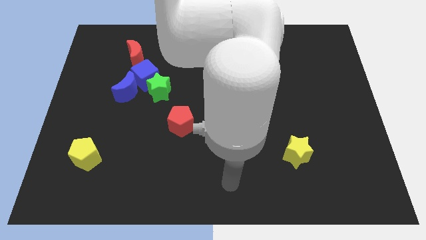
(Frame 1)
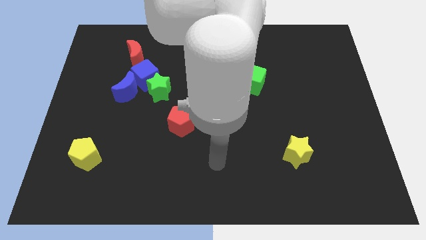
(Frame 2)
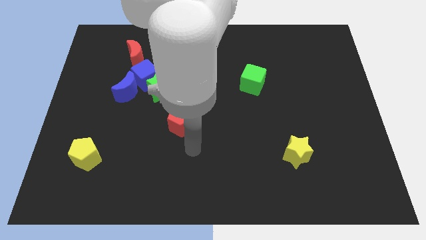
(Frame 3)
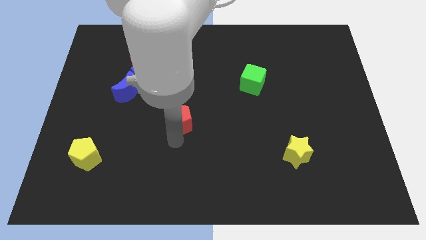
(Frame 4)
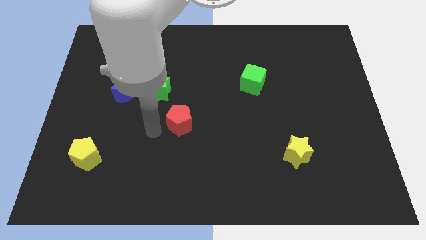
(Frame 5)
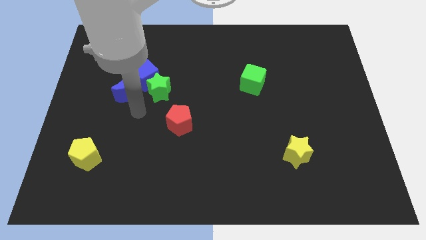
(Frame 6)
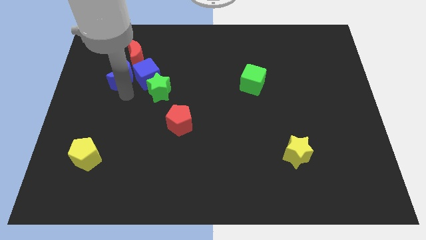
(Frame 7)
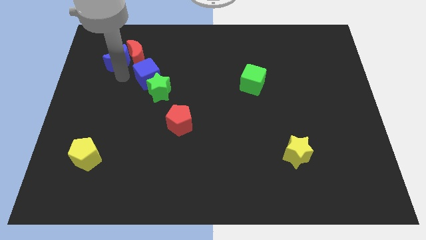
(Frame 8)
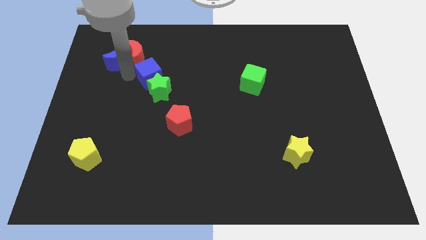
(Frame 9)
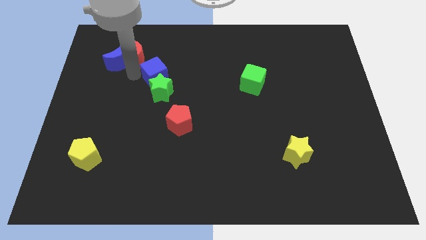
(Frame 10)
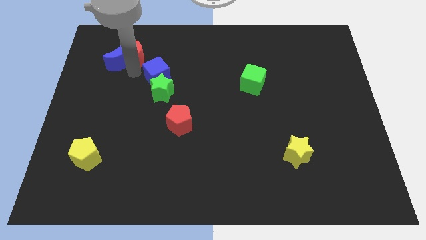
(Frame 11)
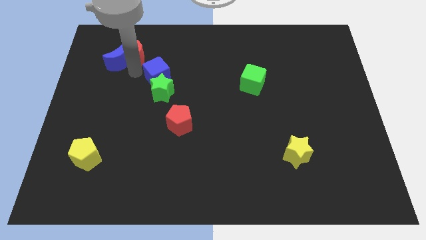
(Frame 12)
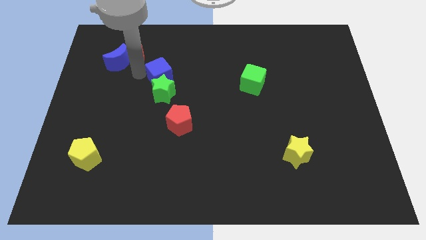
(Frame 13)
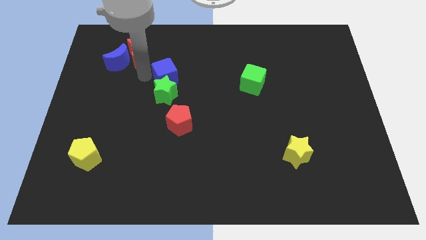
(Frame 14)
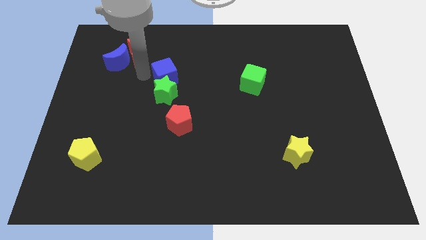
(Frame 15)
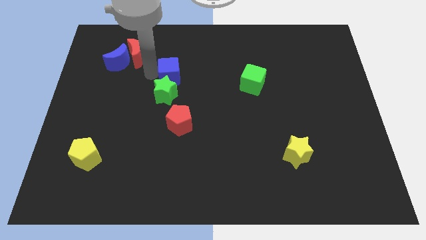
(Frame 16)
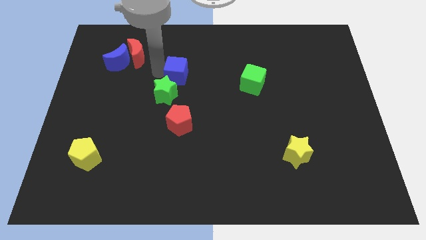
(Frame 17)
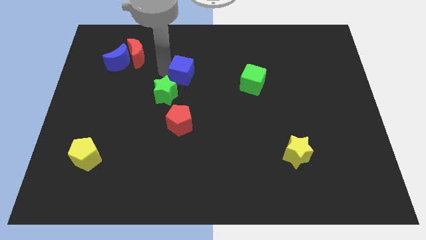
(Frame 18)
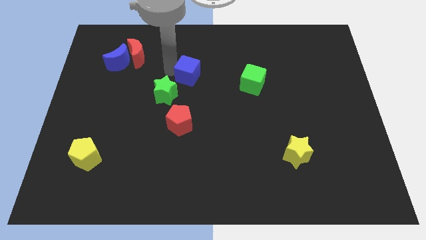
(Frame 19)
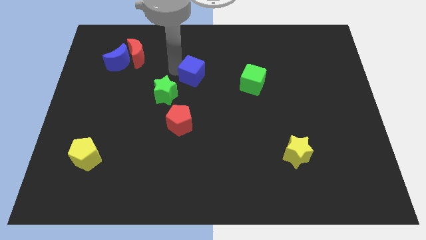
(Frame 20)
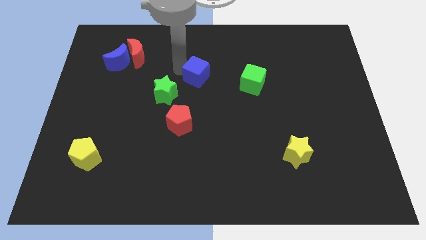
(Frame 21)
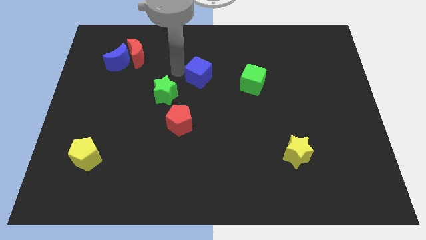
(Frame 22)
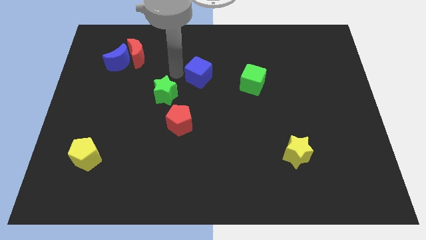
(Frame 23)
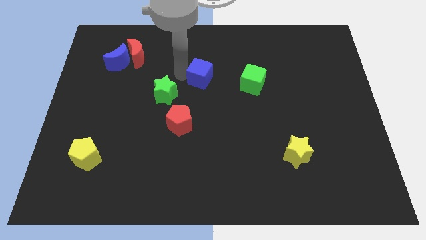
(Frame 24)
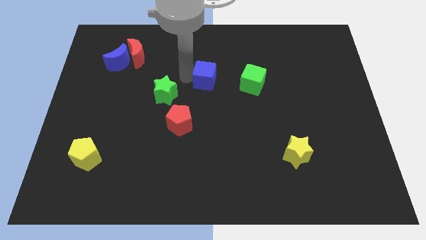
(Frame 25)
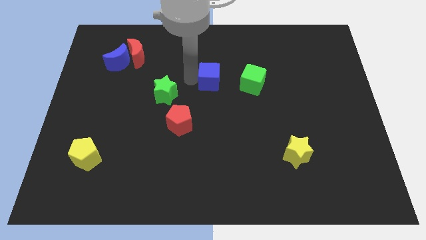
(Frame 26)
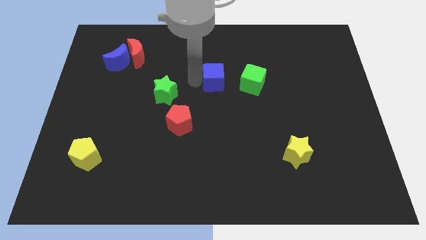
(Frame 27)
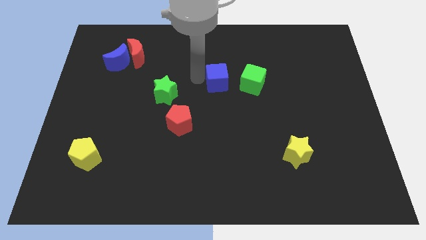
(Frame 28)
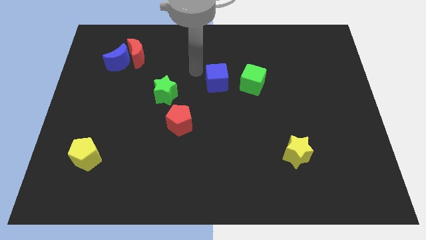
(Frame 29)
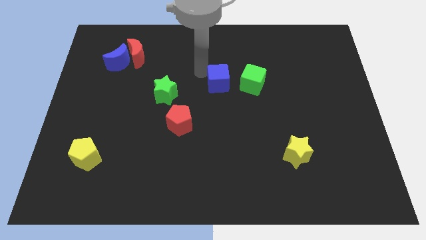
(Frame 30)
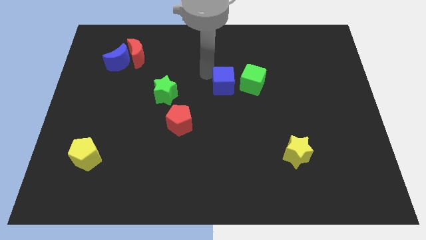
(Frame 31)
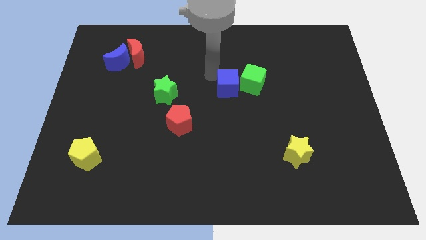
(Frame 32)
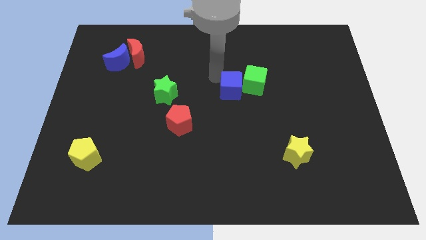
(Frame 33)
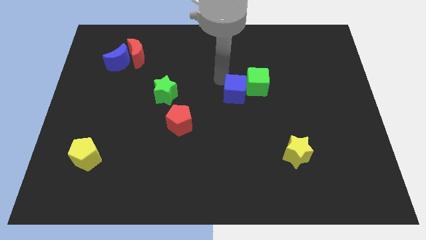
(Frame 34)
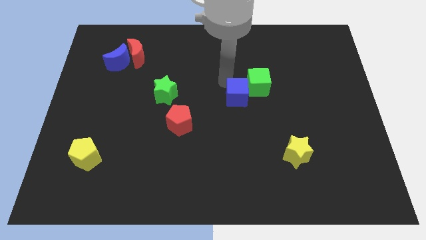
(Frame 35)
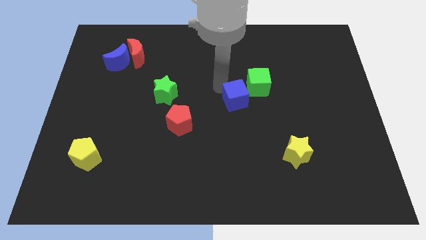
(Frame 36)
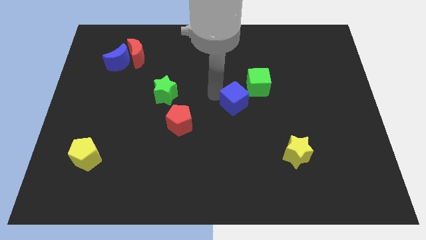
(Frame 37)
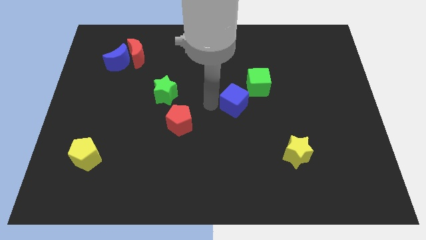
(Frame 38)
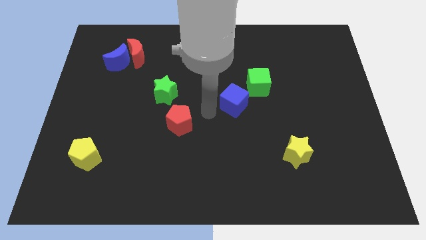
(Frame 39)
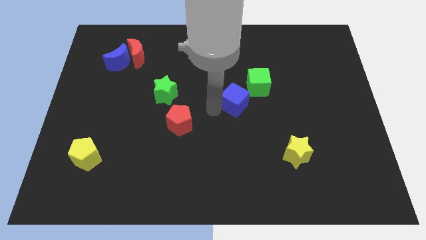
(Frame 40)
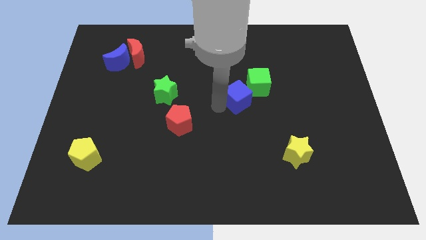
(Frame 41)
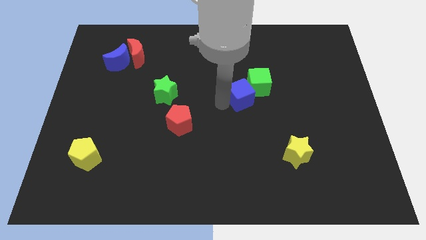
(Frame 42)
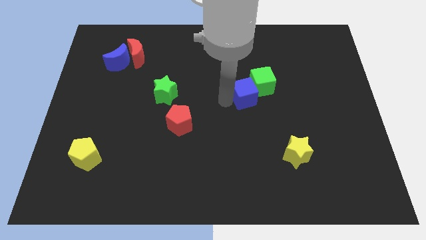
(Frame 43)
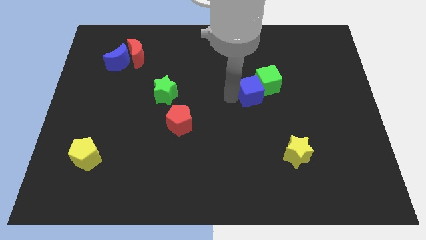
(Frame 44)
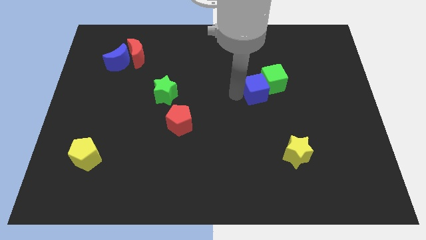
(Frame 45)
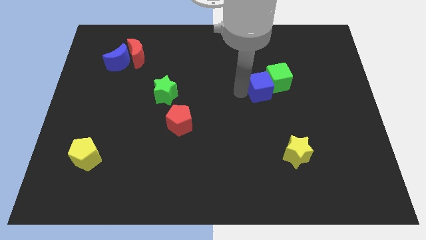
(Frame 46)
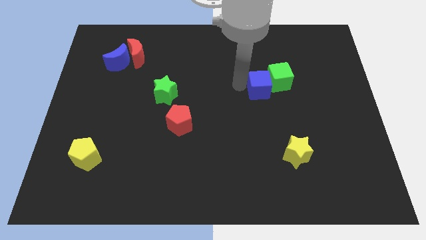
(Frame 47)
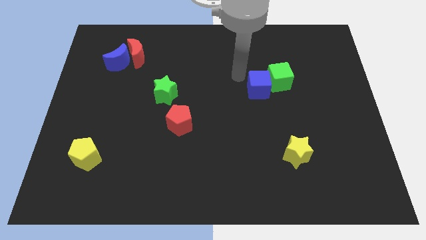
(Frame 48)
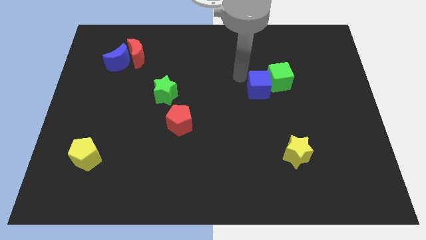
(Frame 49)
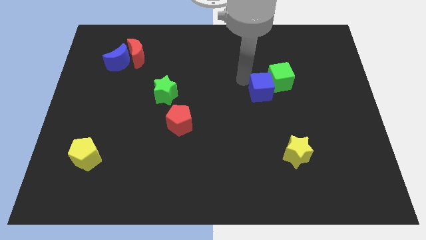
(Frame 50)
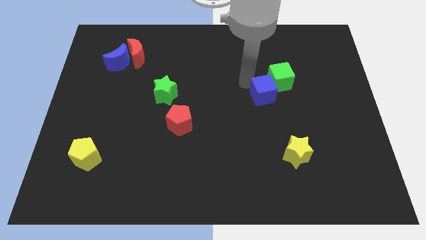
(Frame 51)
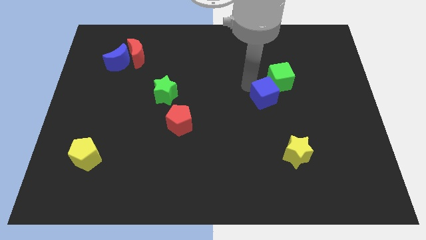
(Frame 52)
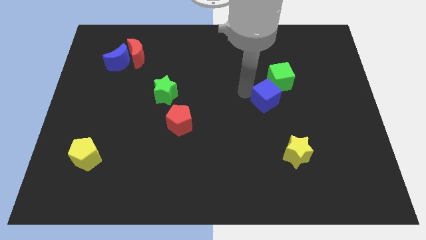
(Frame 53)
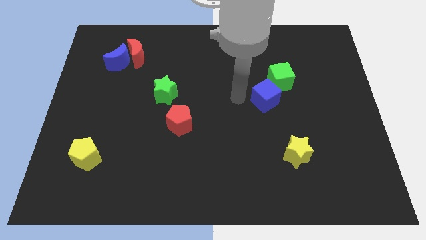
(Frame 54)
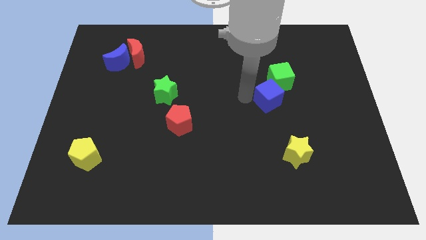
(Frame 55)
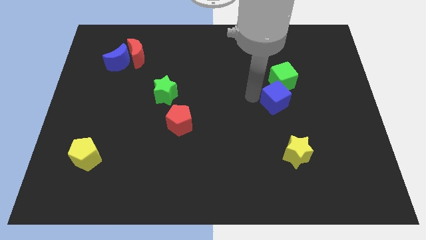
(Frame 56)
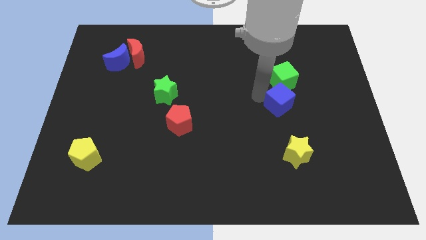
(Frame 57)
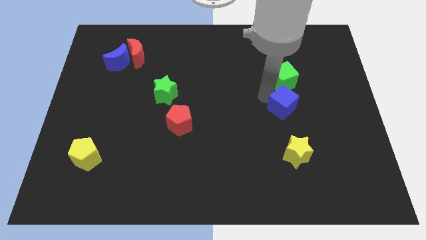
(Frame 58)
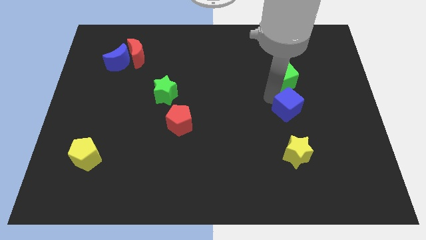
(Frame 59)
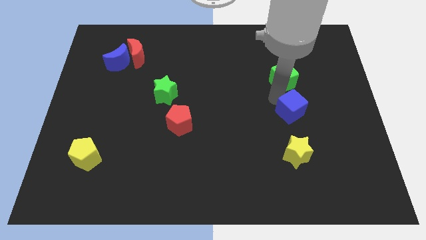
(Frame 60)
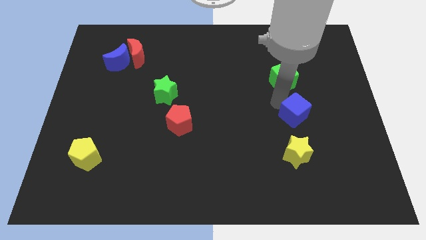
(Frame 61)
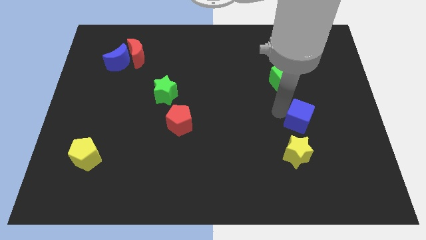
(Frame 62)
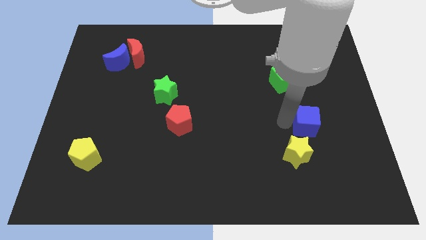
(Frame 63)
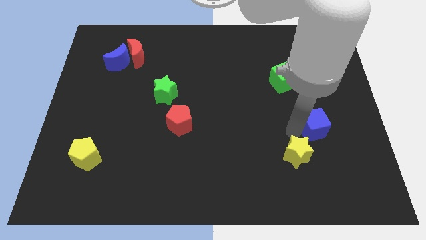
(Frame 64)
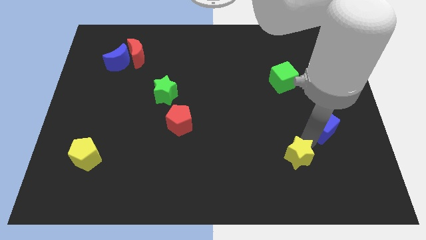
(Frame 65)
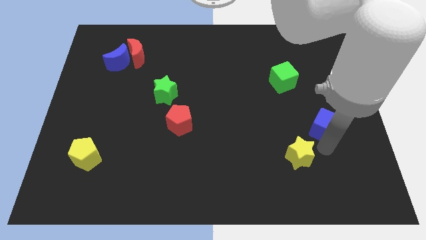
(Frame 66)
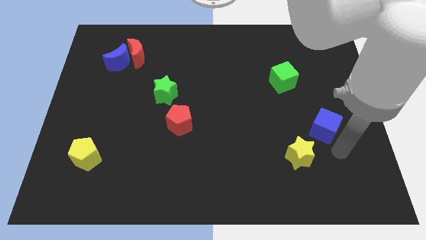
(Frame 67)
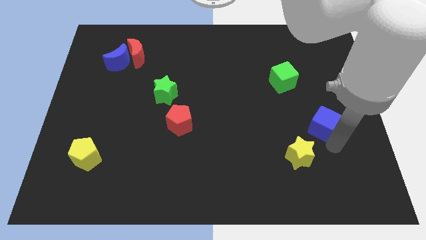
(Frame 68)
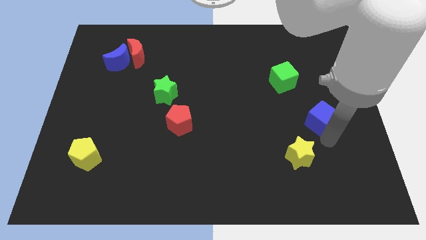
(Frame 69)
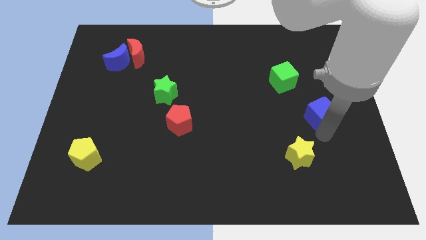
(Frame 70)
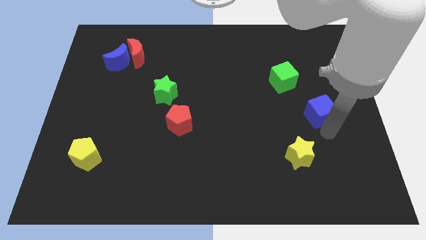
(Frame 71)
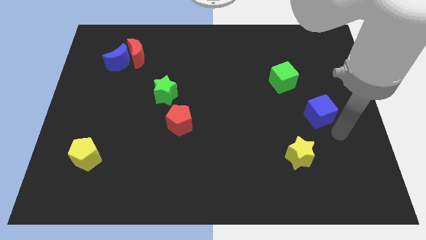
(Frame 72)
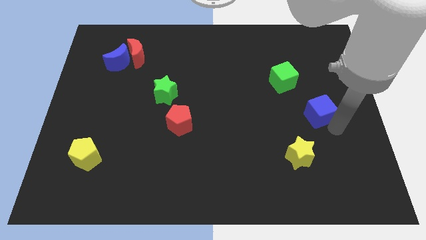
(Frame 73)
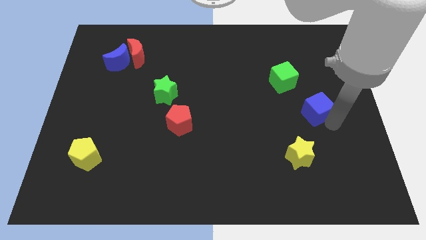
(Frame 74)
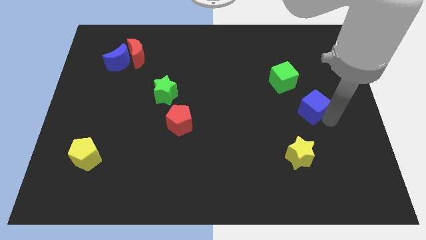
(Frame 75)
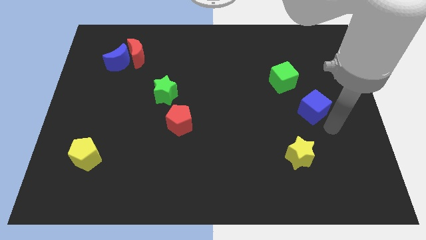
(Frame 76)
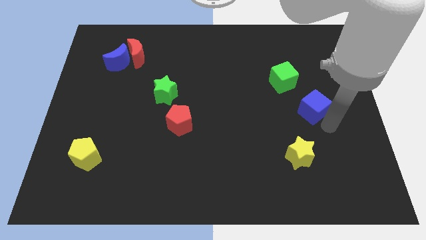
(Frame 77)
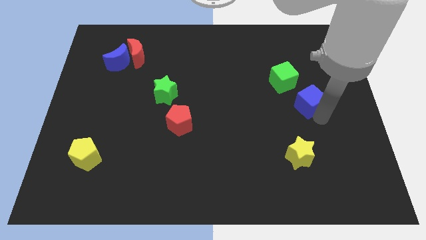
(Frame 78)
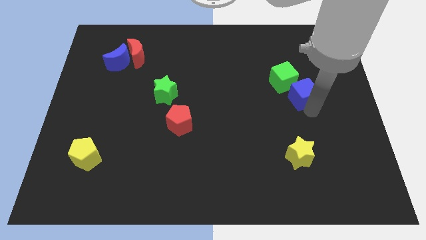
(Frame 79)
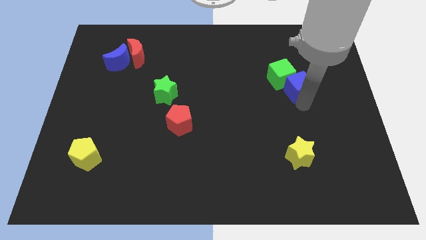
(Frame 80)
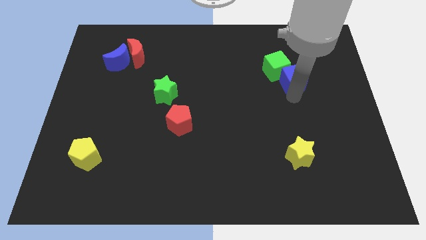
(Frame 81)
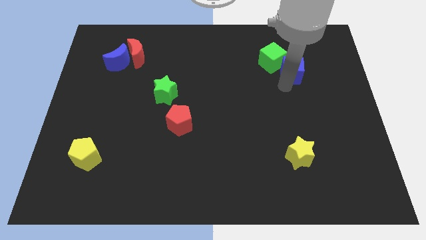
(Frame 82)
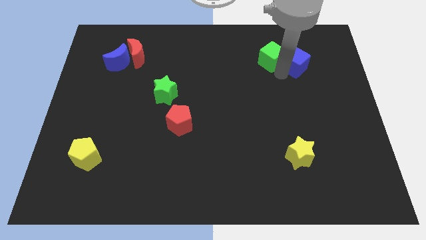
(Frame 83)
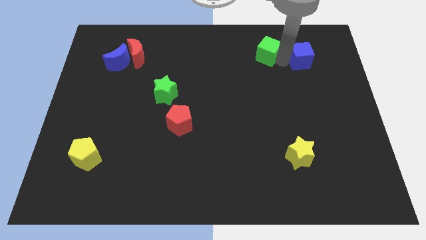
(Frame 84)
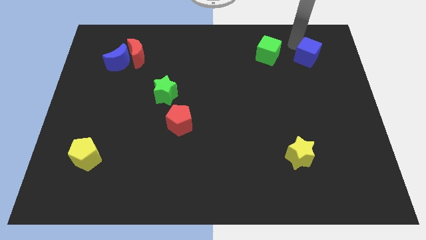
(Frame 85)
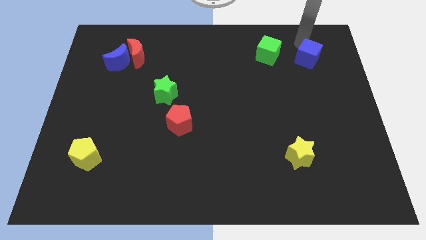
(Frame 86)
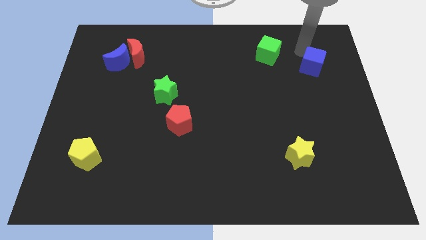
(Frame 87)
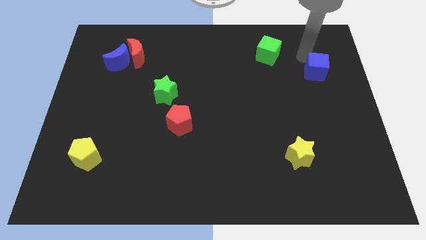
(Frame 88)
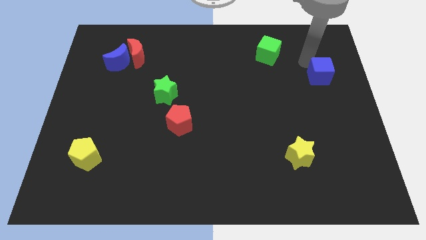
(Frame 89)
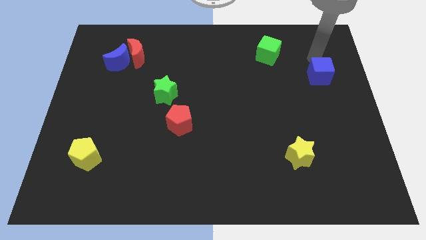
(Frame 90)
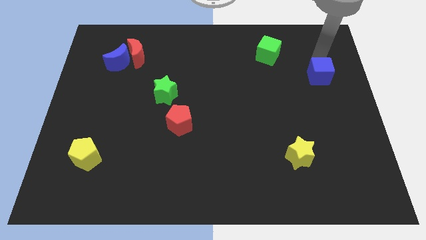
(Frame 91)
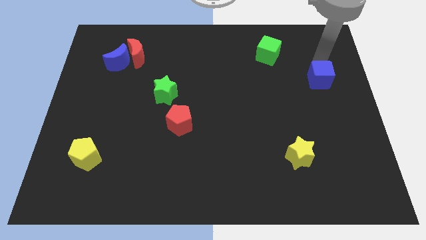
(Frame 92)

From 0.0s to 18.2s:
push the blue cube to the right side of the board
